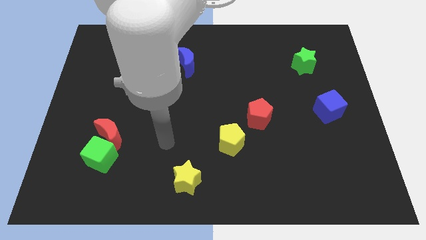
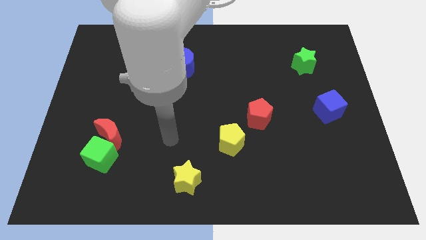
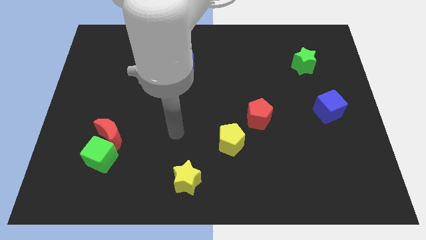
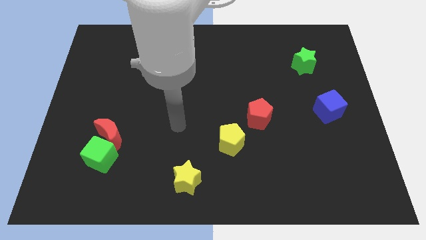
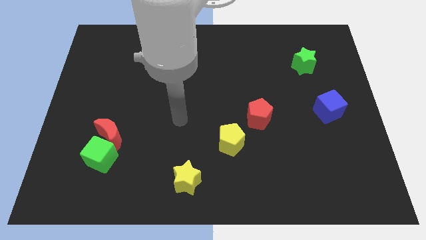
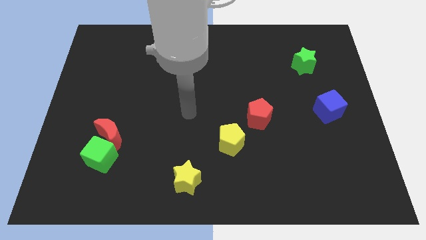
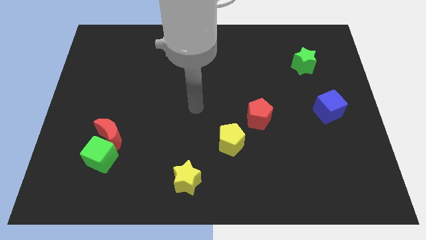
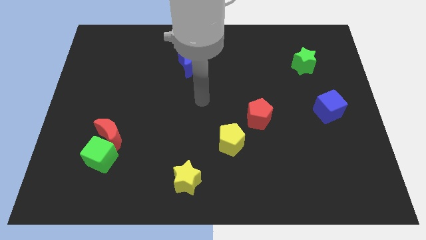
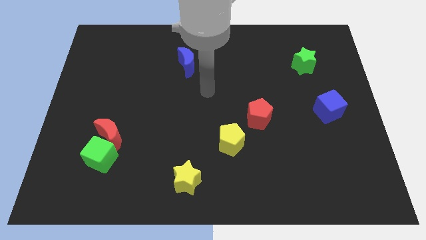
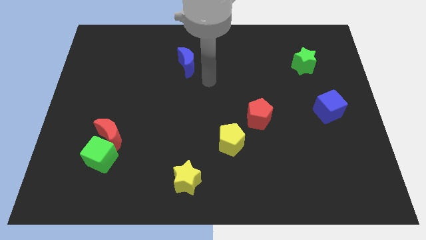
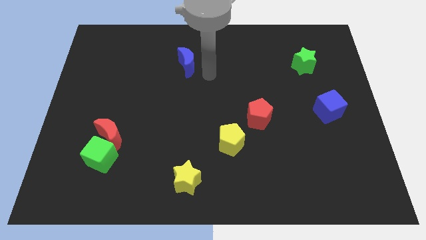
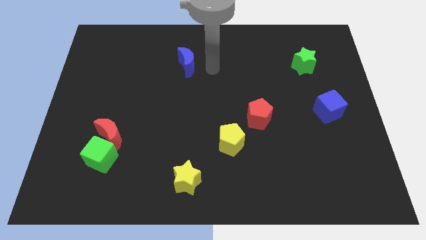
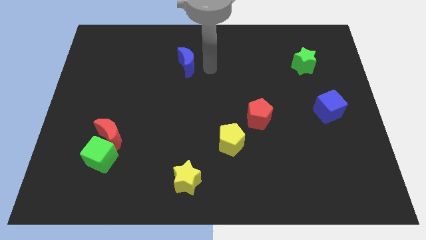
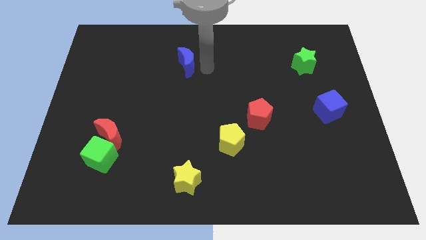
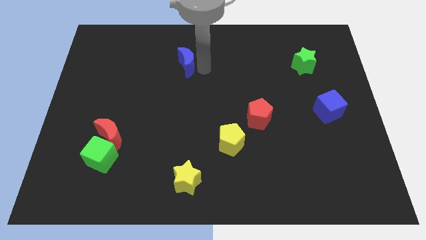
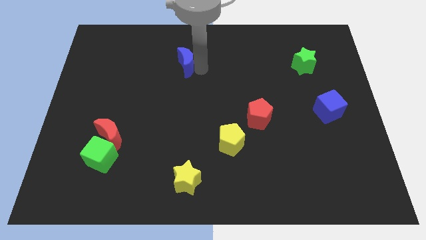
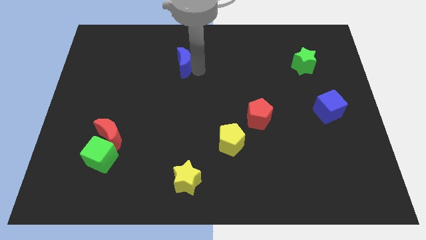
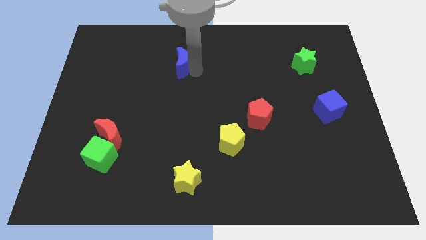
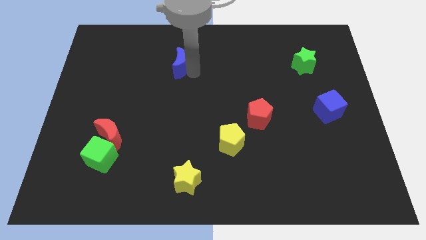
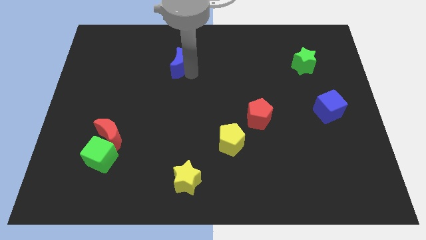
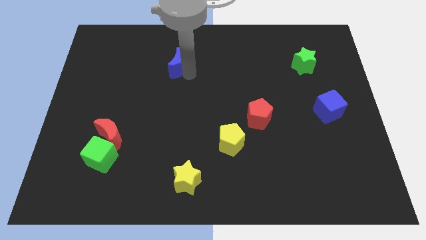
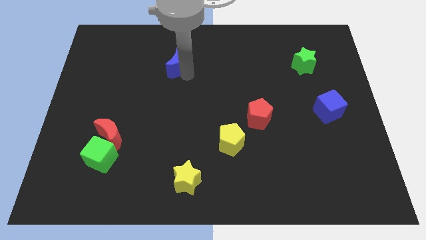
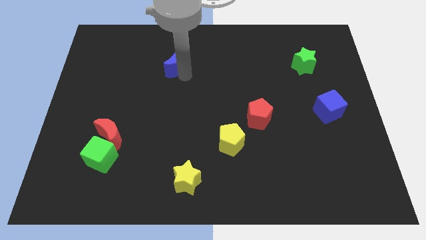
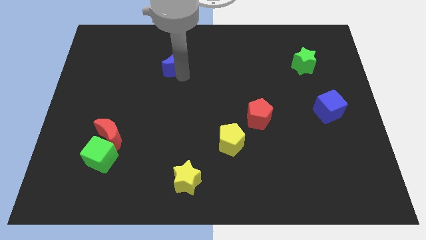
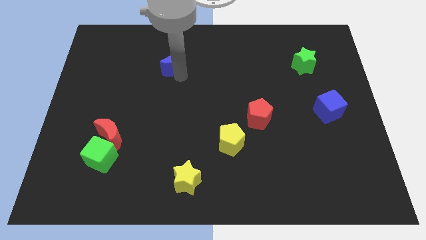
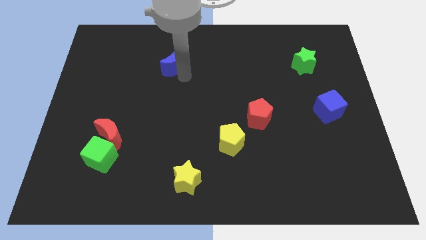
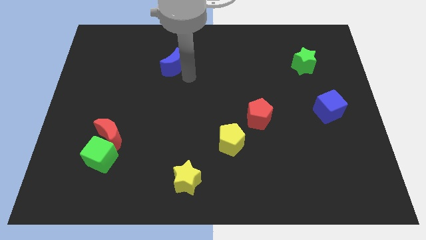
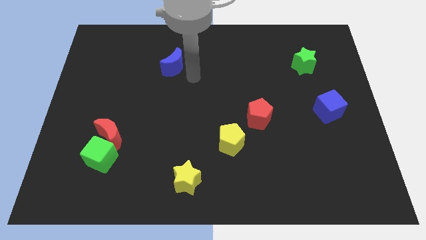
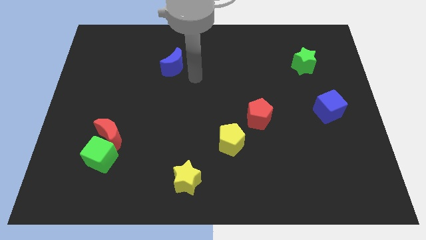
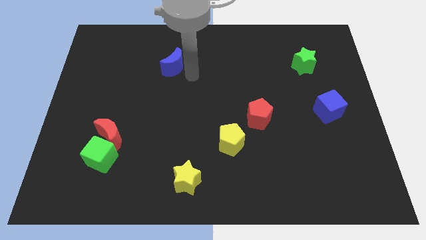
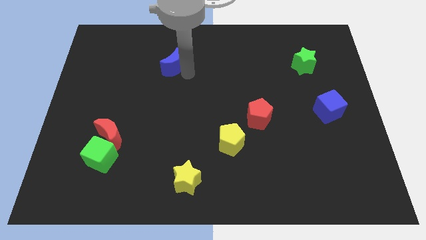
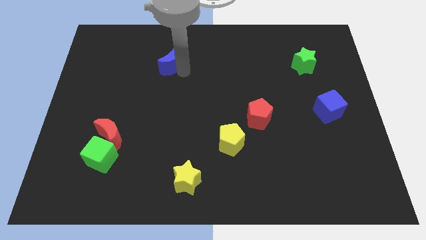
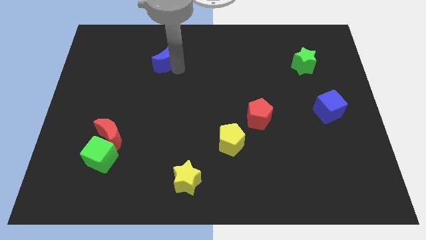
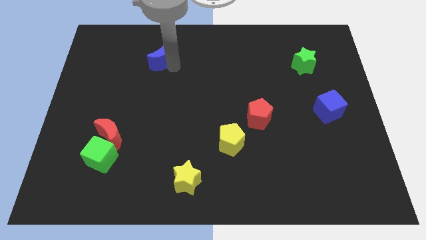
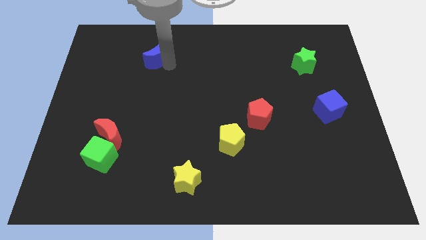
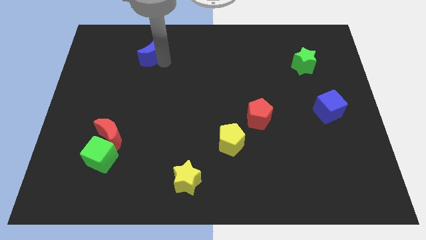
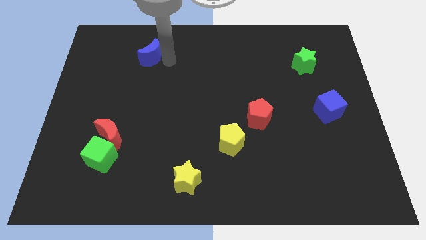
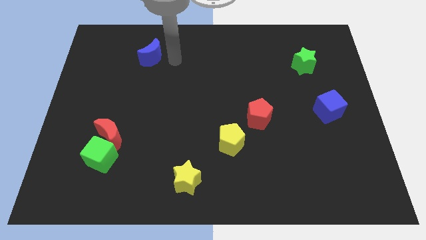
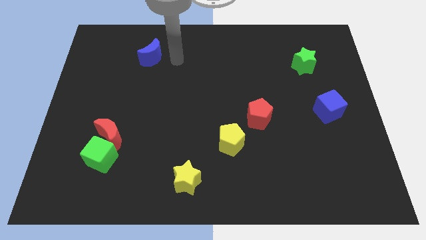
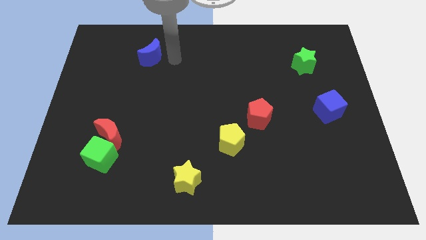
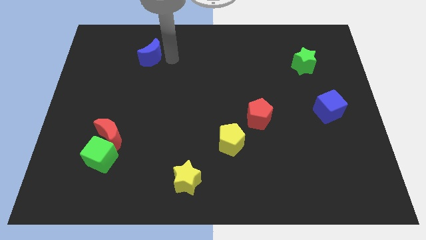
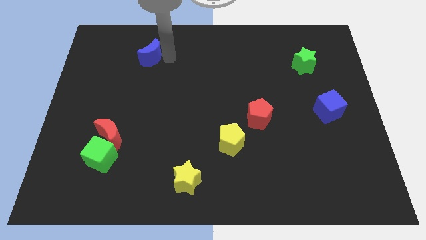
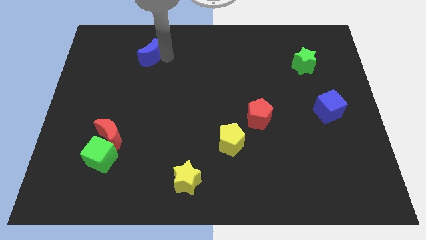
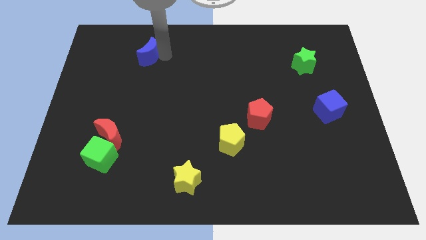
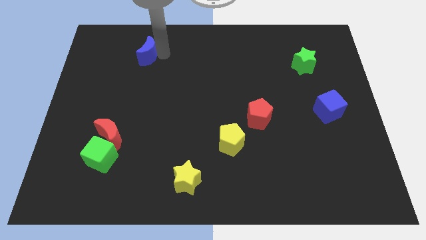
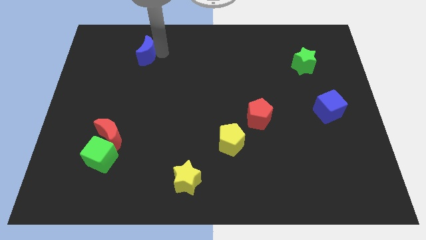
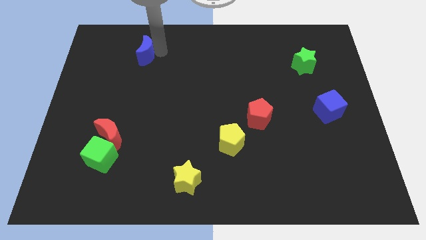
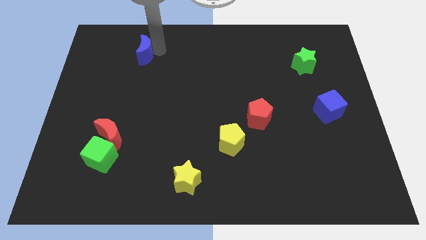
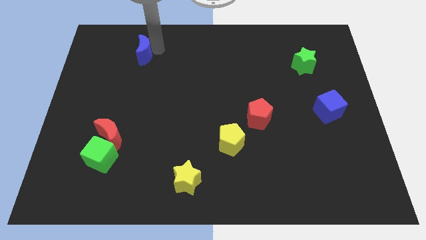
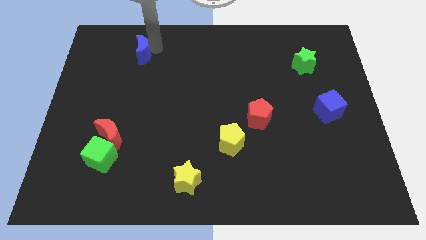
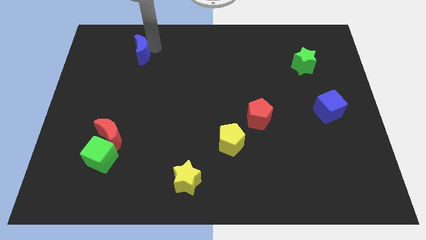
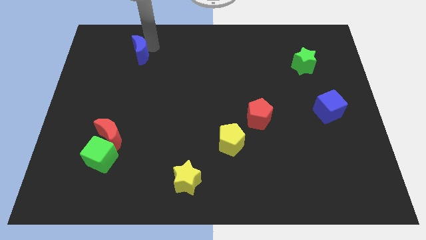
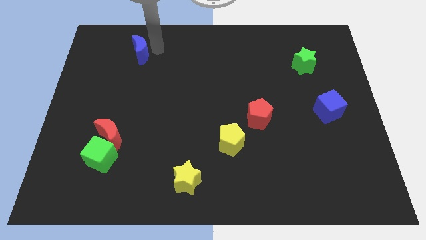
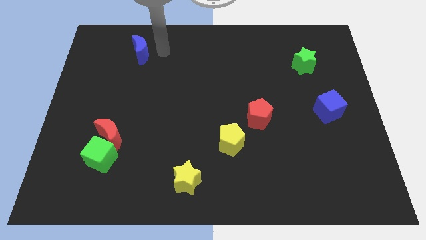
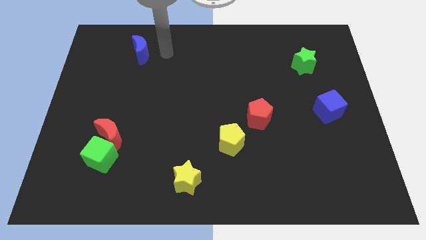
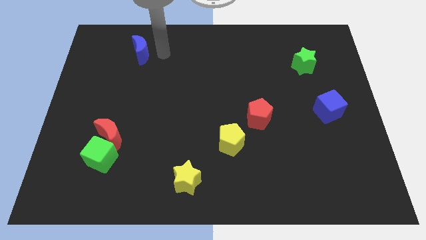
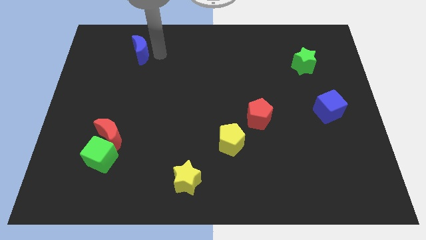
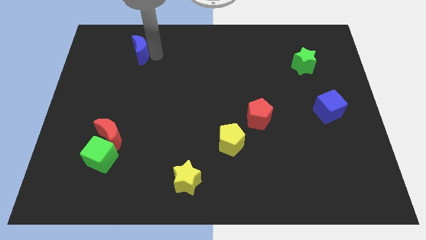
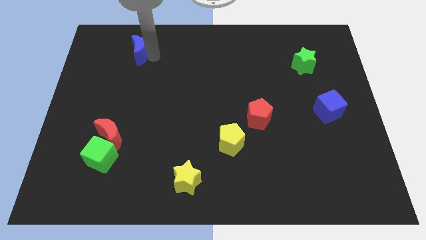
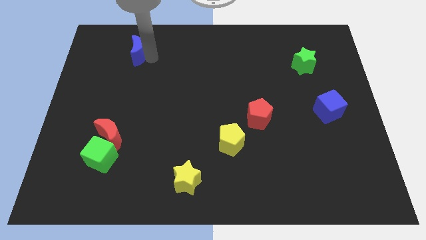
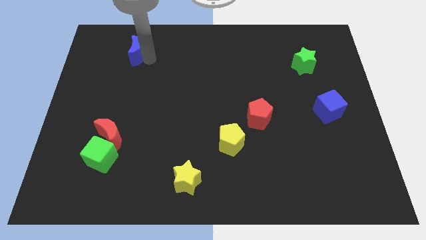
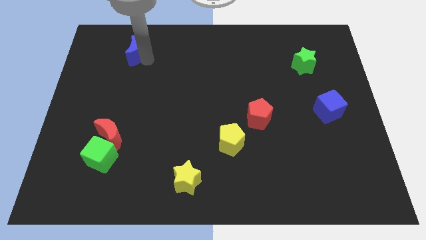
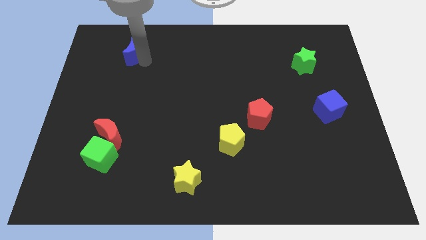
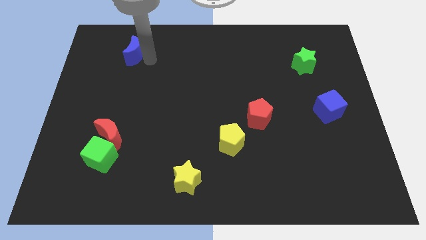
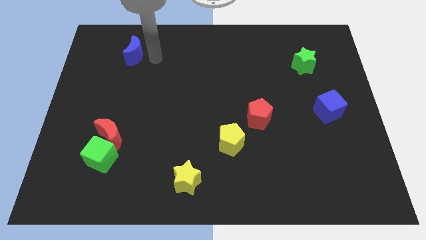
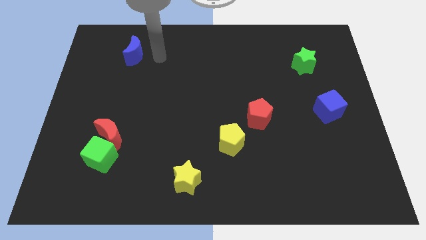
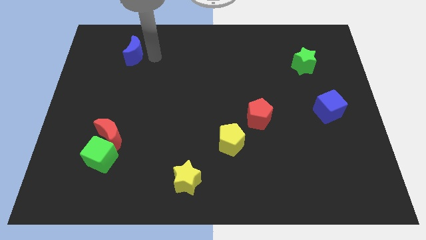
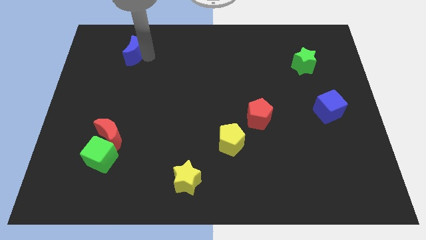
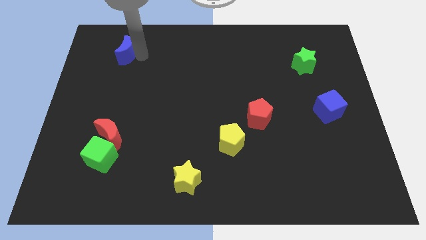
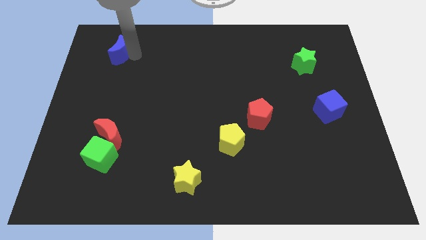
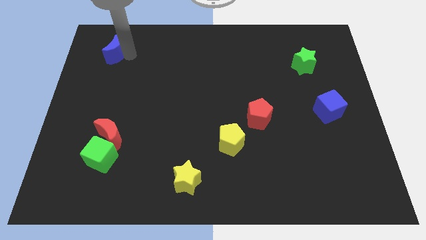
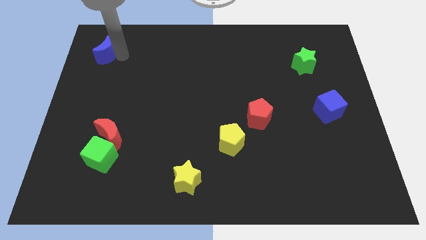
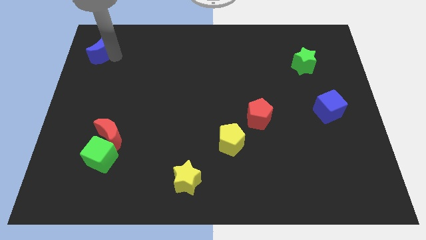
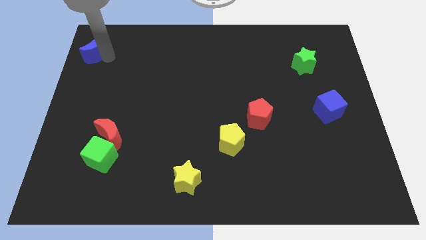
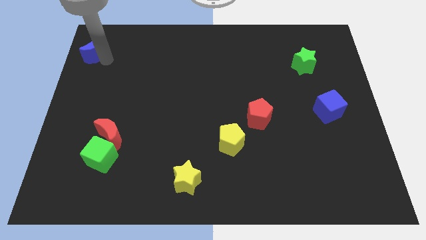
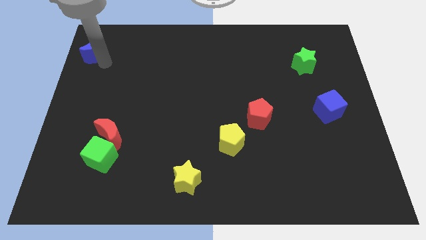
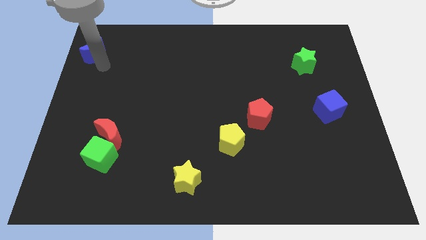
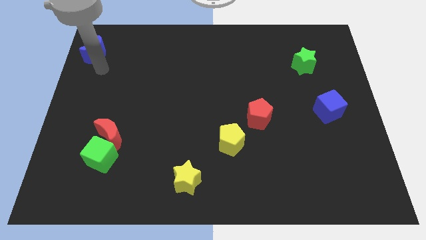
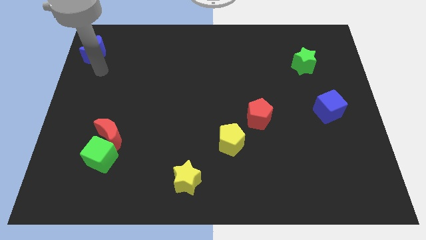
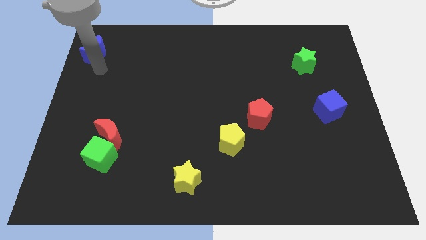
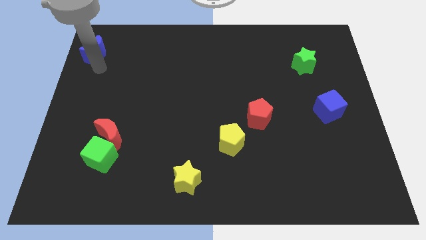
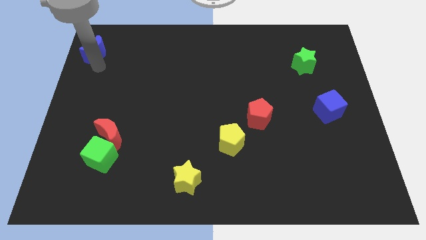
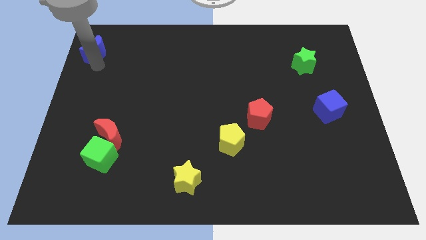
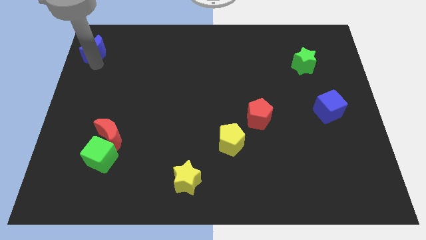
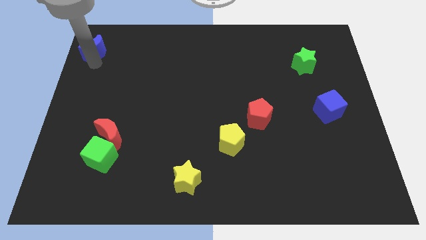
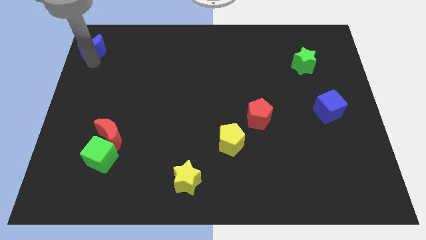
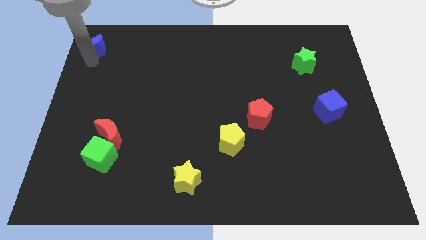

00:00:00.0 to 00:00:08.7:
push the blue moon to the top left corner
